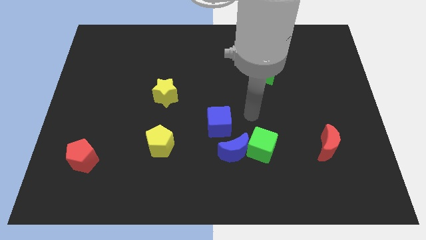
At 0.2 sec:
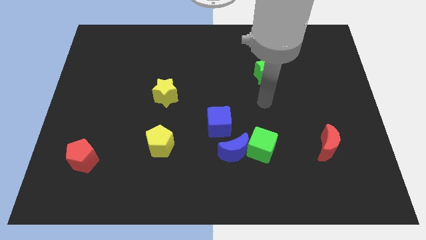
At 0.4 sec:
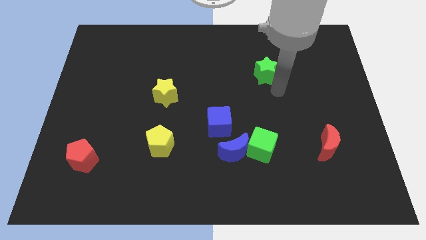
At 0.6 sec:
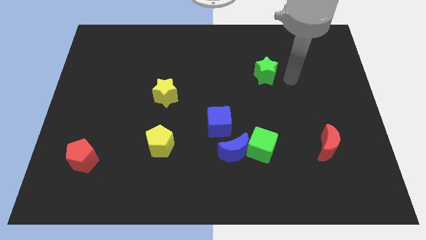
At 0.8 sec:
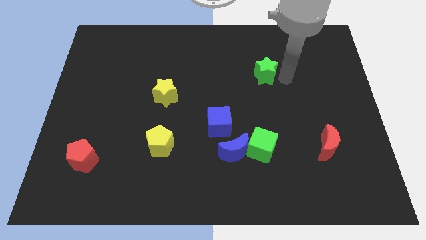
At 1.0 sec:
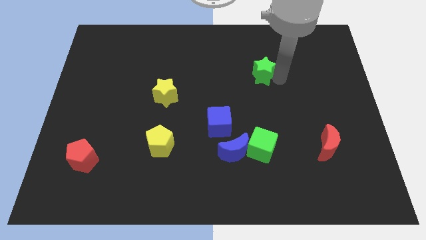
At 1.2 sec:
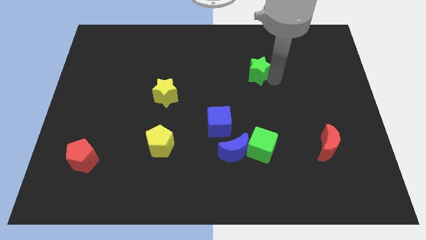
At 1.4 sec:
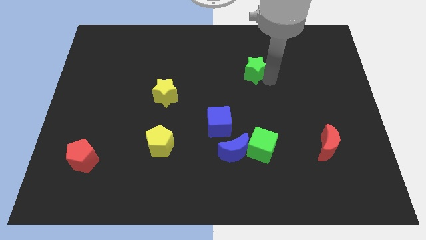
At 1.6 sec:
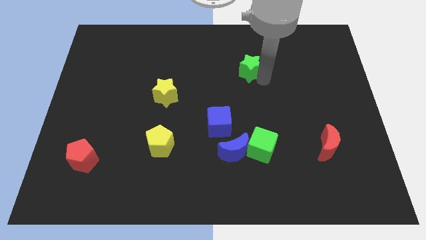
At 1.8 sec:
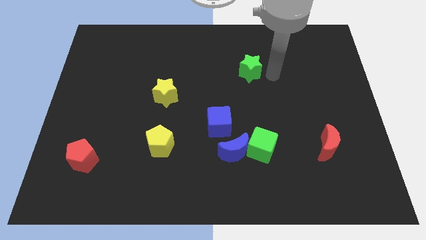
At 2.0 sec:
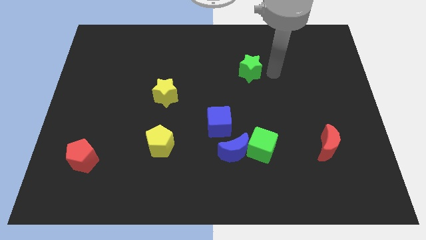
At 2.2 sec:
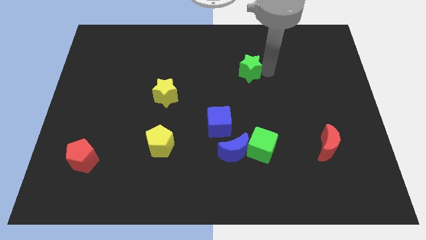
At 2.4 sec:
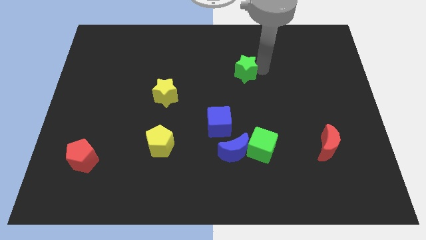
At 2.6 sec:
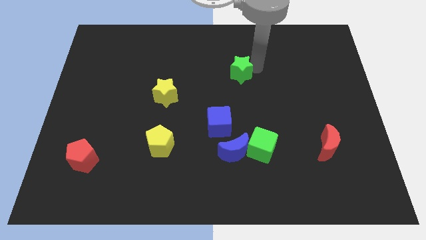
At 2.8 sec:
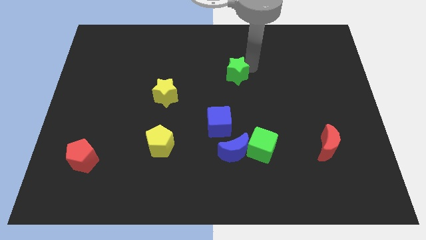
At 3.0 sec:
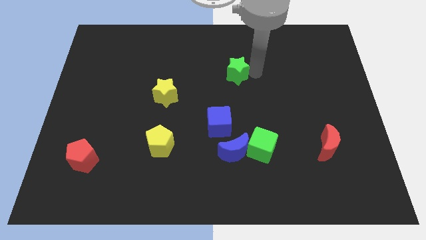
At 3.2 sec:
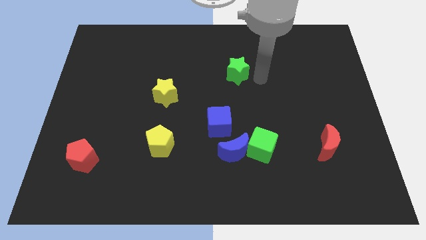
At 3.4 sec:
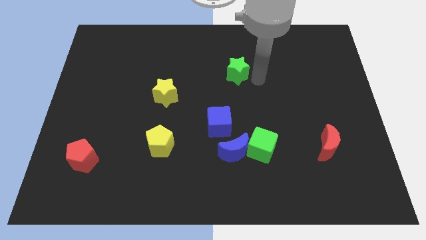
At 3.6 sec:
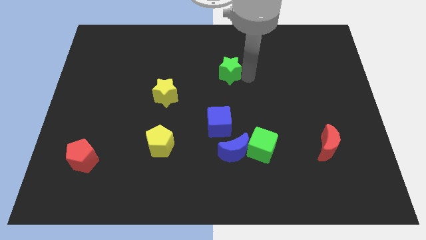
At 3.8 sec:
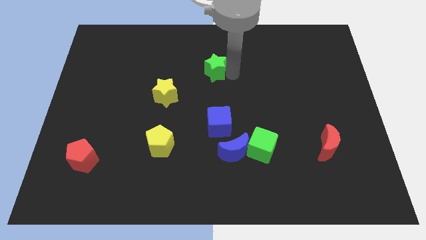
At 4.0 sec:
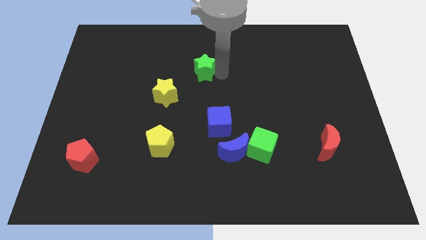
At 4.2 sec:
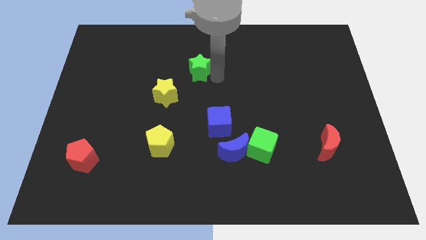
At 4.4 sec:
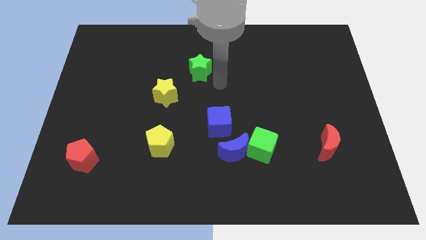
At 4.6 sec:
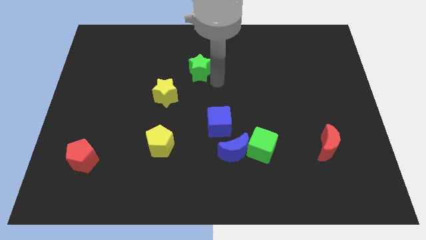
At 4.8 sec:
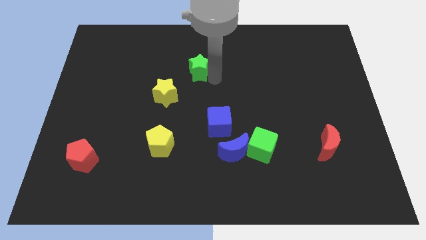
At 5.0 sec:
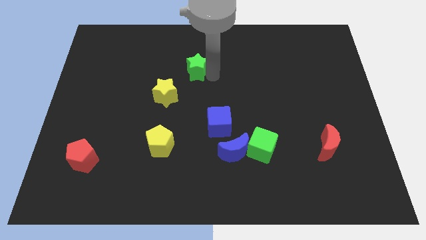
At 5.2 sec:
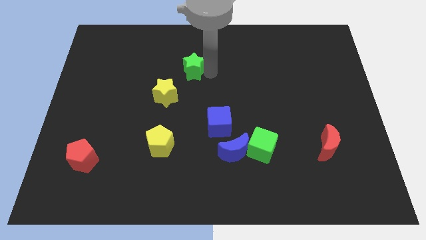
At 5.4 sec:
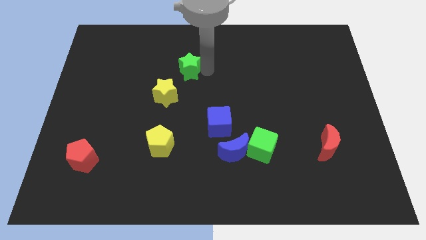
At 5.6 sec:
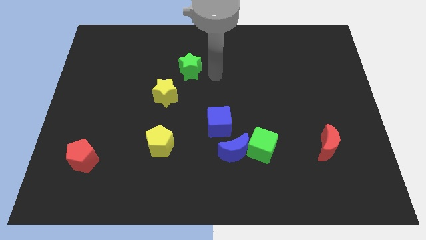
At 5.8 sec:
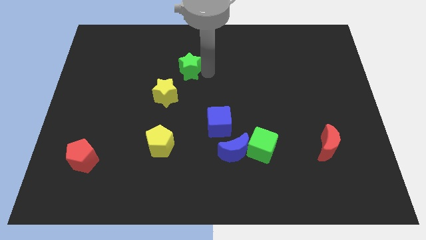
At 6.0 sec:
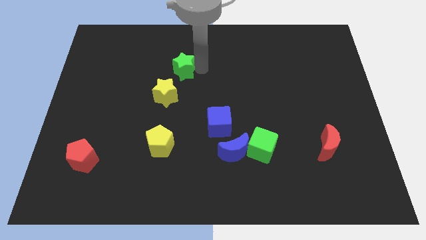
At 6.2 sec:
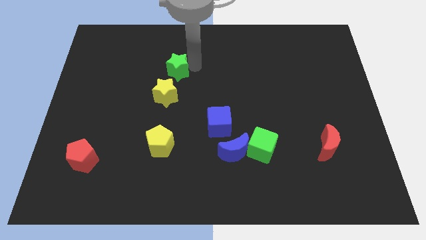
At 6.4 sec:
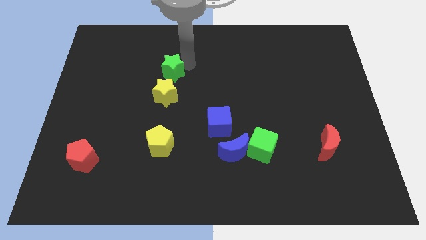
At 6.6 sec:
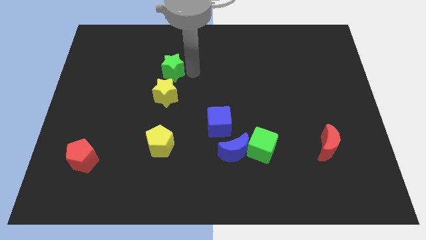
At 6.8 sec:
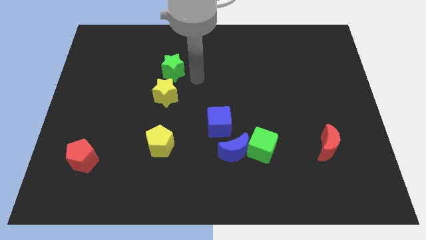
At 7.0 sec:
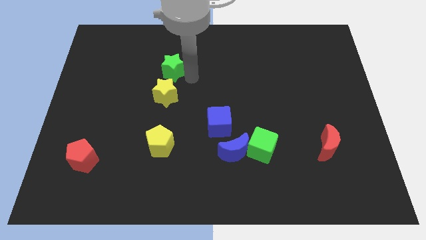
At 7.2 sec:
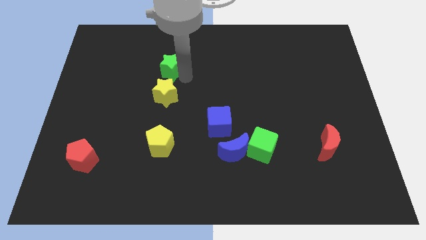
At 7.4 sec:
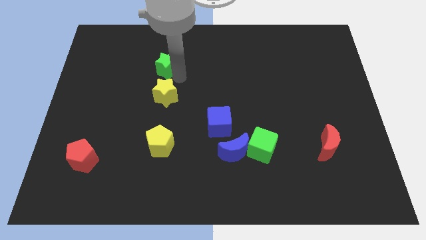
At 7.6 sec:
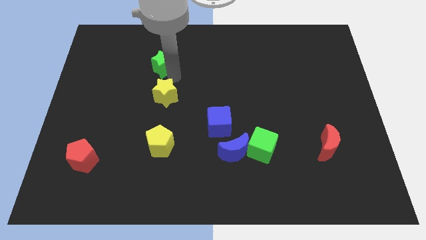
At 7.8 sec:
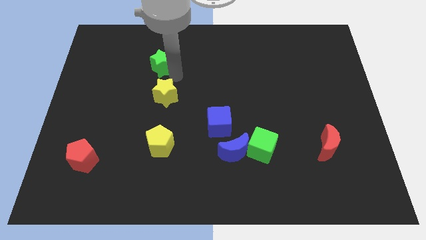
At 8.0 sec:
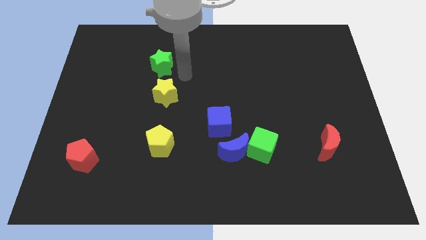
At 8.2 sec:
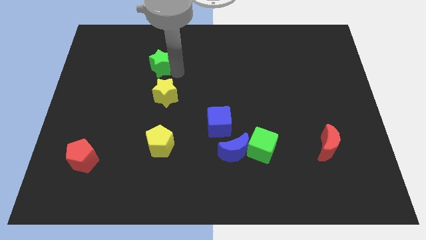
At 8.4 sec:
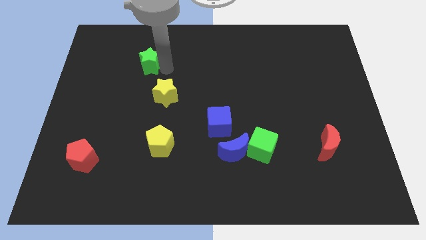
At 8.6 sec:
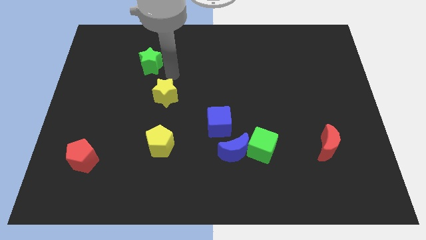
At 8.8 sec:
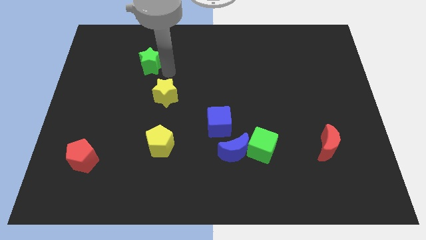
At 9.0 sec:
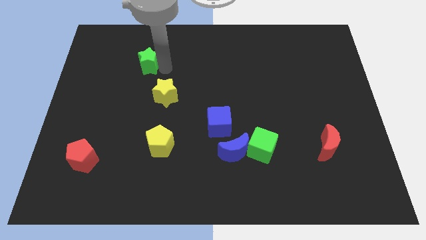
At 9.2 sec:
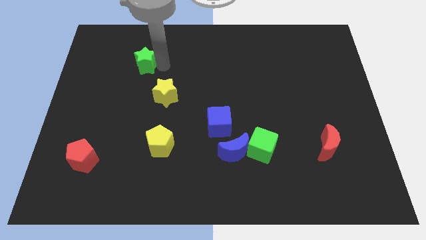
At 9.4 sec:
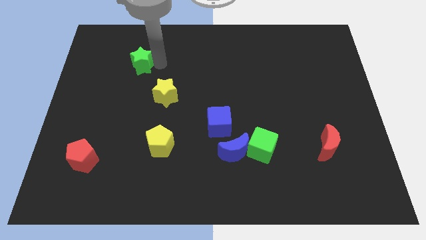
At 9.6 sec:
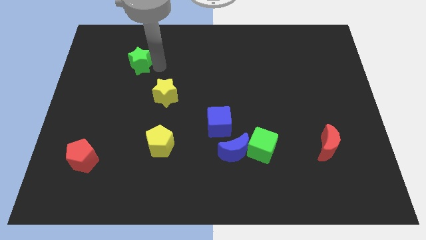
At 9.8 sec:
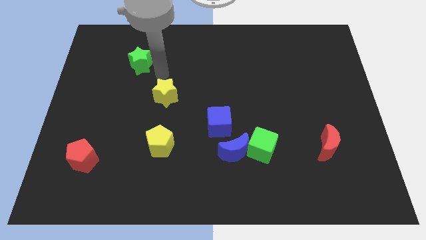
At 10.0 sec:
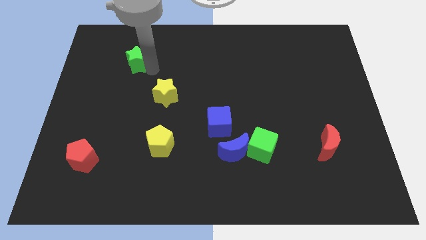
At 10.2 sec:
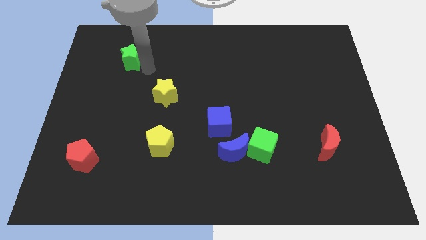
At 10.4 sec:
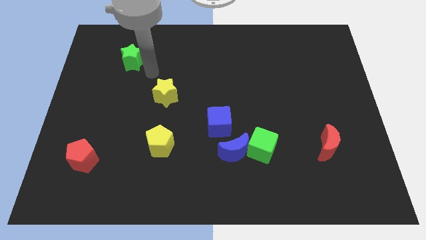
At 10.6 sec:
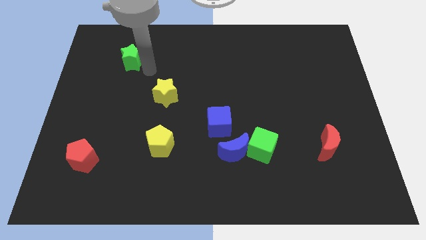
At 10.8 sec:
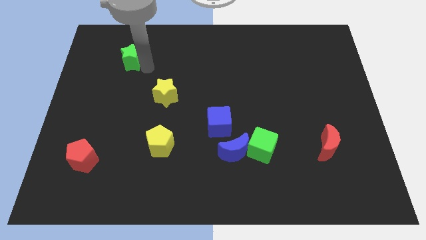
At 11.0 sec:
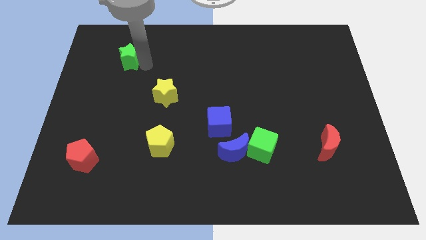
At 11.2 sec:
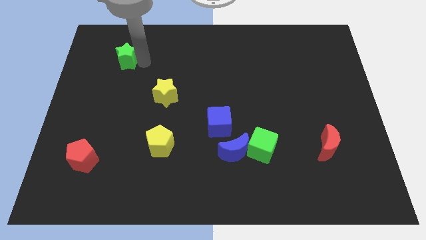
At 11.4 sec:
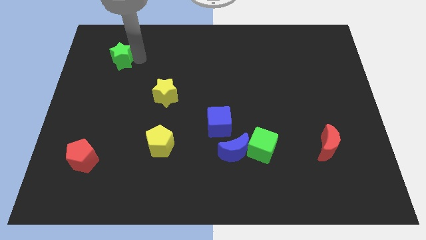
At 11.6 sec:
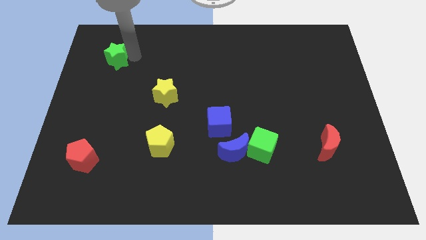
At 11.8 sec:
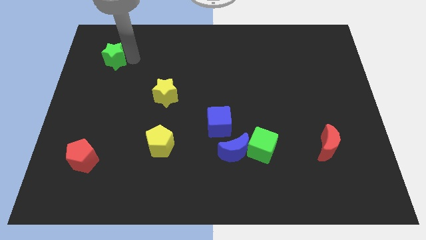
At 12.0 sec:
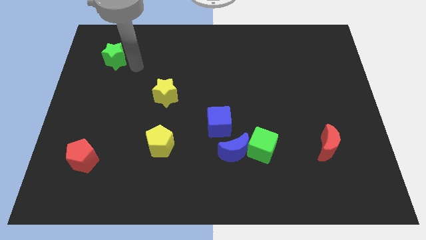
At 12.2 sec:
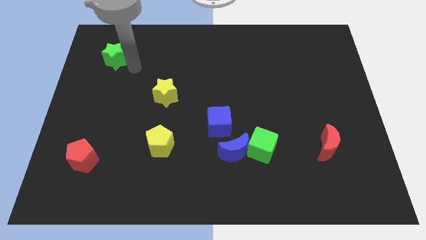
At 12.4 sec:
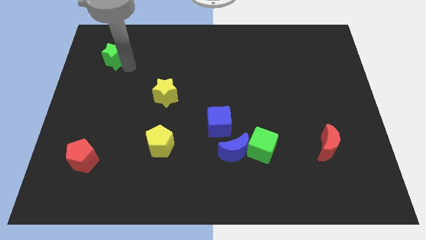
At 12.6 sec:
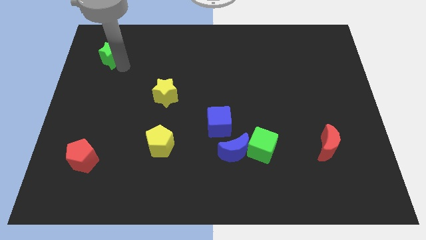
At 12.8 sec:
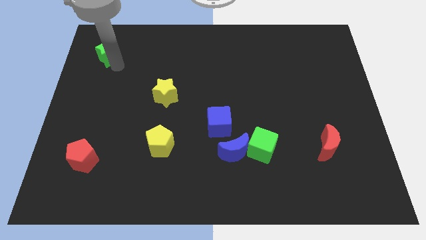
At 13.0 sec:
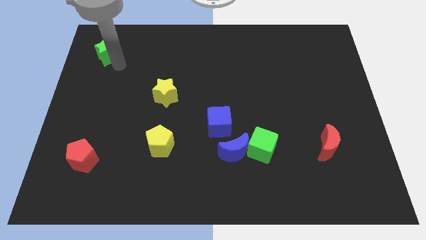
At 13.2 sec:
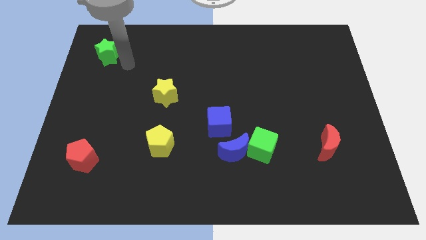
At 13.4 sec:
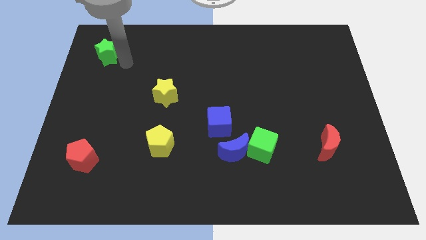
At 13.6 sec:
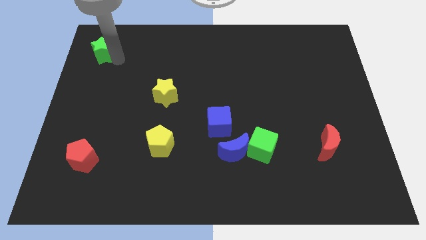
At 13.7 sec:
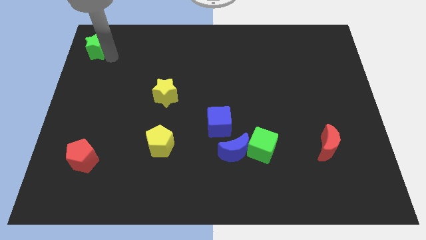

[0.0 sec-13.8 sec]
push the green star to the top left corner
